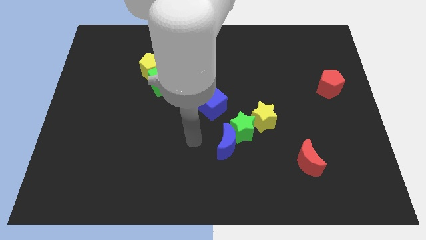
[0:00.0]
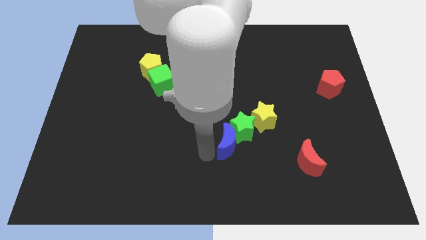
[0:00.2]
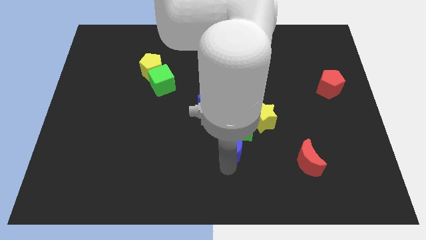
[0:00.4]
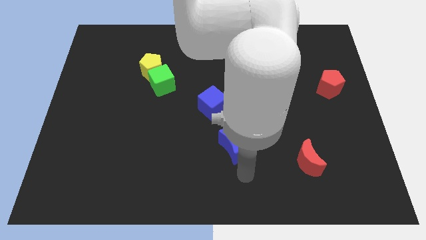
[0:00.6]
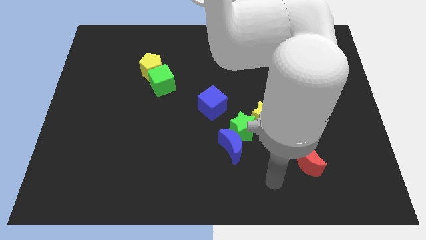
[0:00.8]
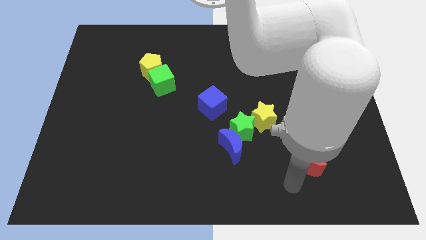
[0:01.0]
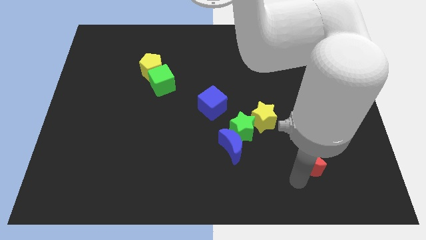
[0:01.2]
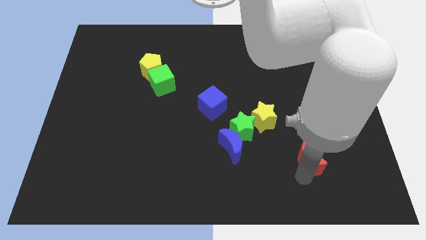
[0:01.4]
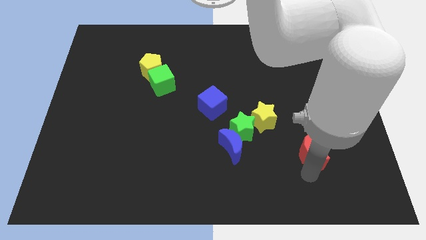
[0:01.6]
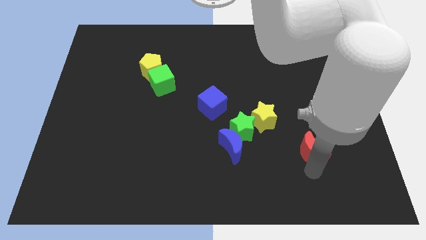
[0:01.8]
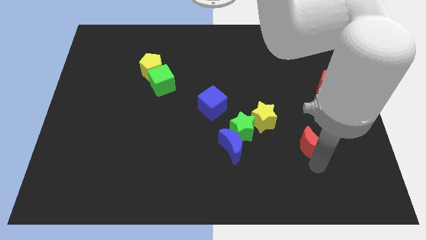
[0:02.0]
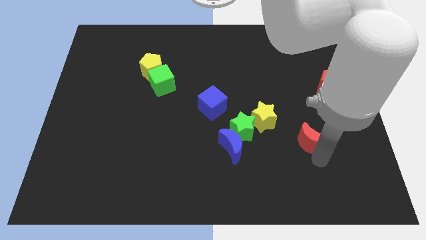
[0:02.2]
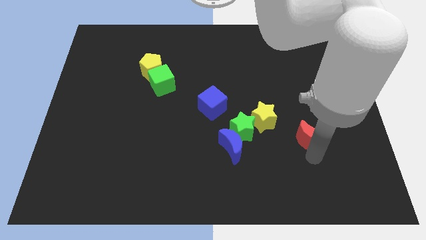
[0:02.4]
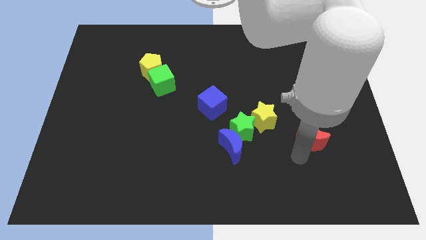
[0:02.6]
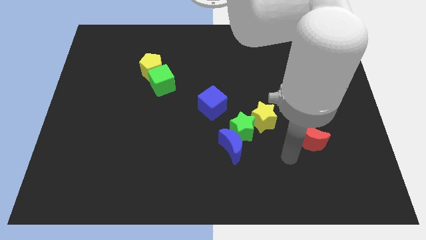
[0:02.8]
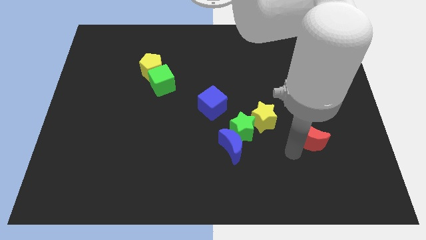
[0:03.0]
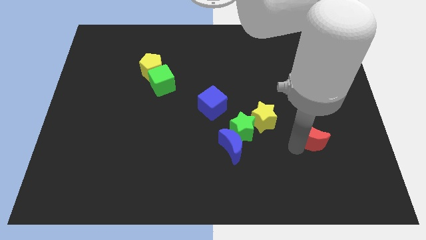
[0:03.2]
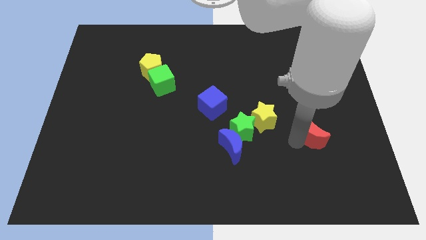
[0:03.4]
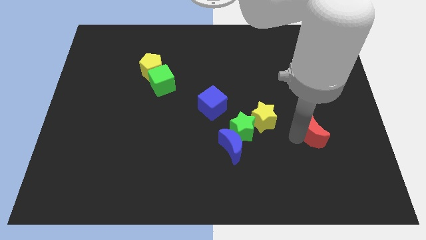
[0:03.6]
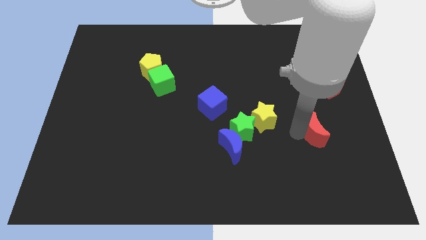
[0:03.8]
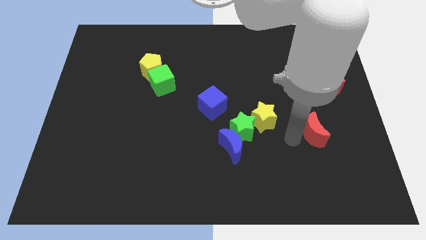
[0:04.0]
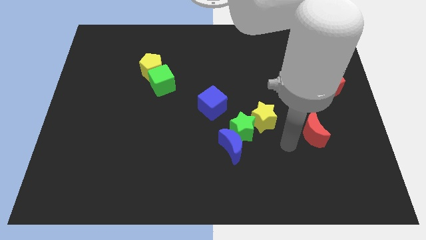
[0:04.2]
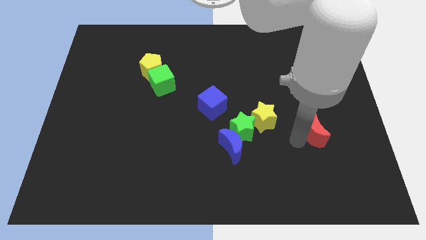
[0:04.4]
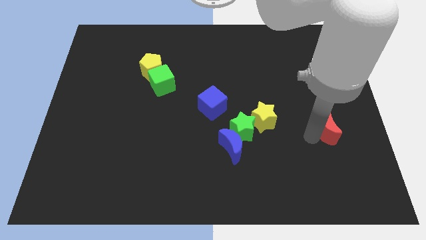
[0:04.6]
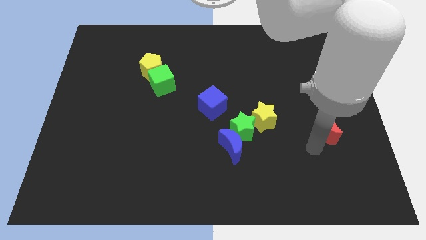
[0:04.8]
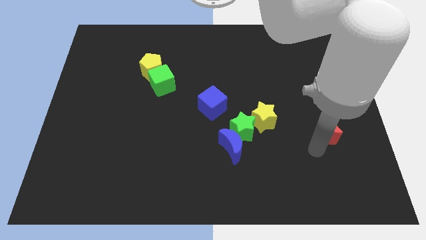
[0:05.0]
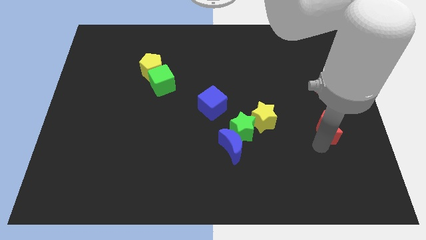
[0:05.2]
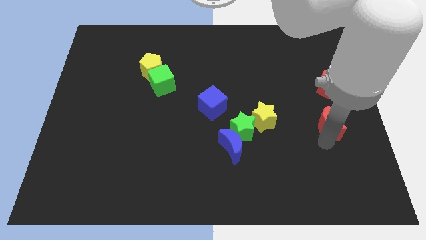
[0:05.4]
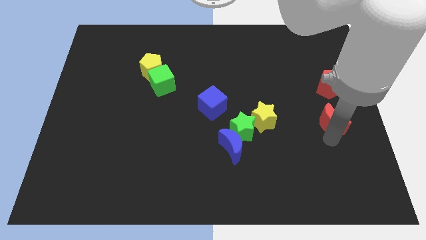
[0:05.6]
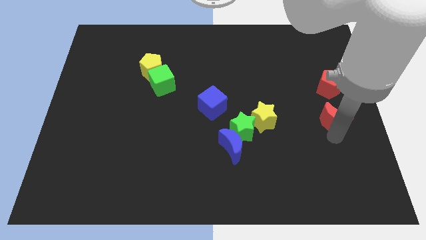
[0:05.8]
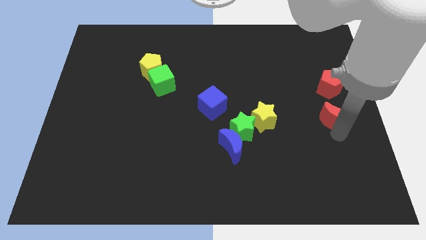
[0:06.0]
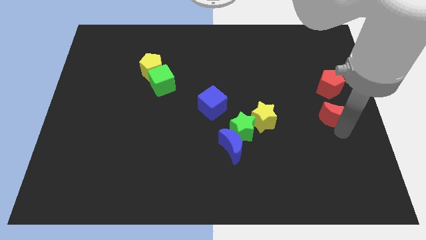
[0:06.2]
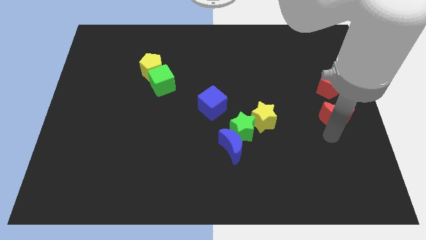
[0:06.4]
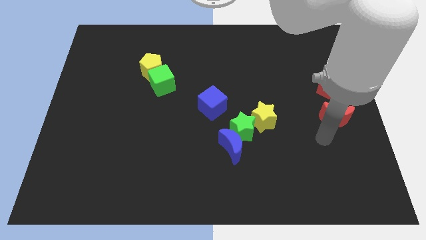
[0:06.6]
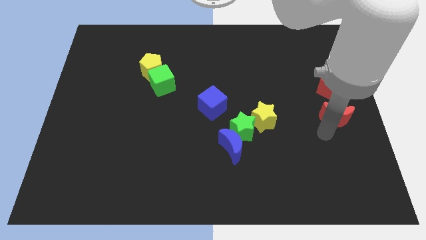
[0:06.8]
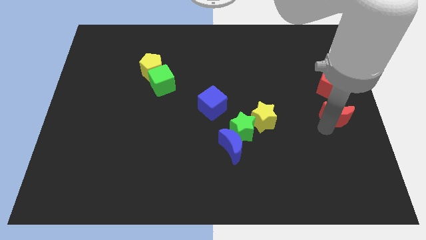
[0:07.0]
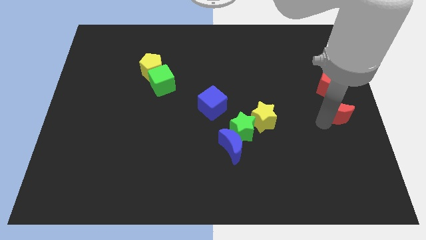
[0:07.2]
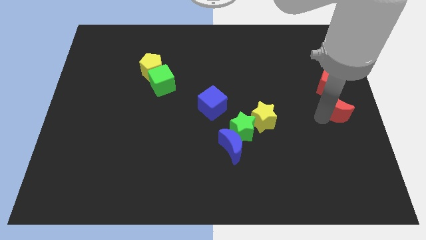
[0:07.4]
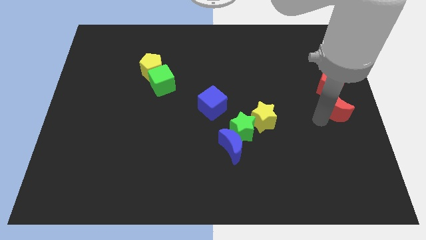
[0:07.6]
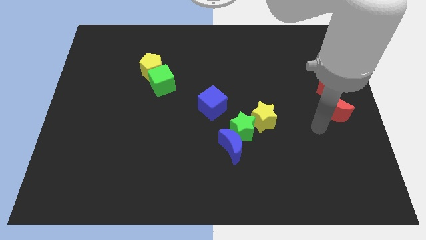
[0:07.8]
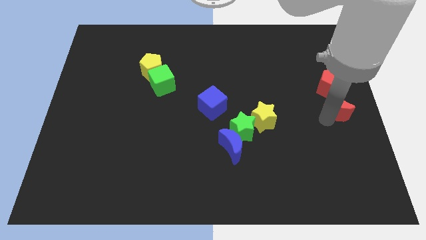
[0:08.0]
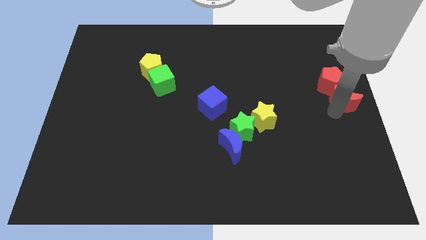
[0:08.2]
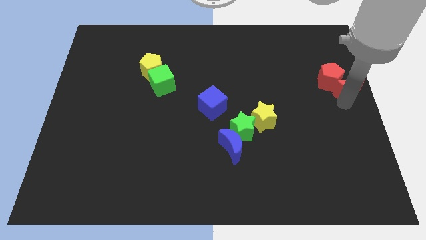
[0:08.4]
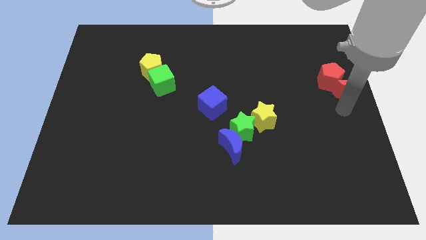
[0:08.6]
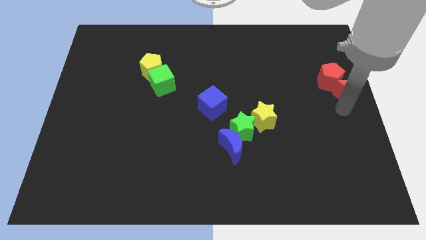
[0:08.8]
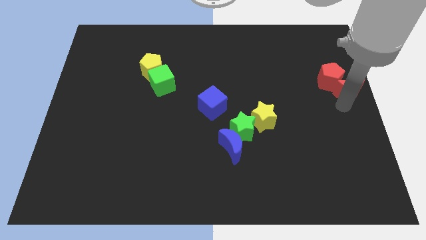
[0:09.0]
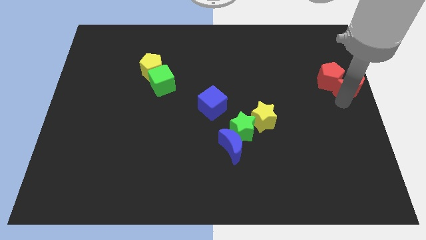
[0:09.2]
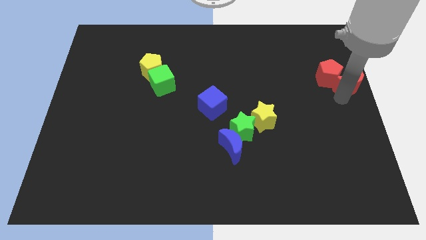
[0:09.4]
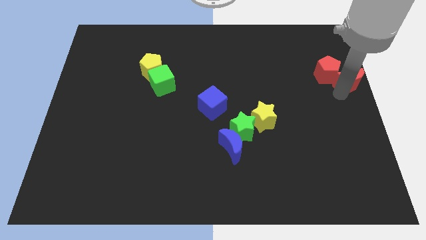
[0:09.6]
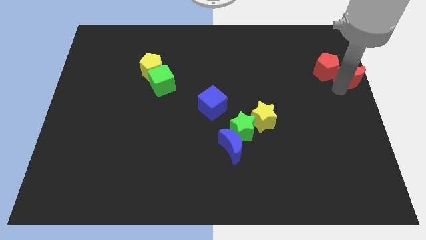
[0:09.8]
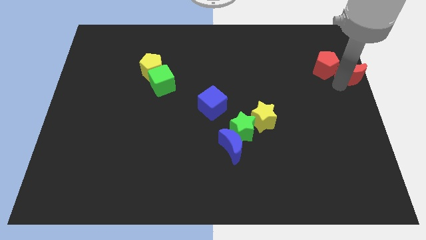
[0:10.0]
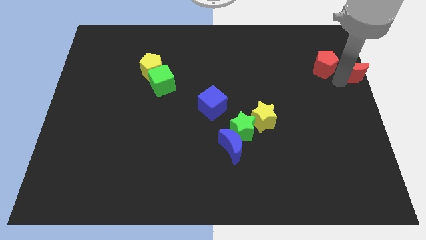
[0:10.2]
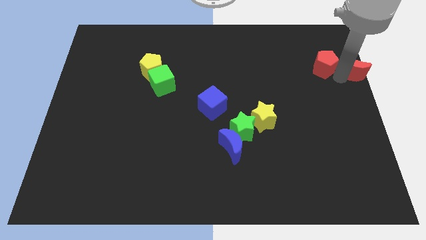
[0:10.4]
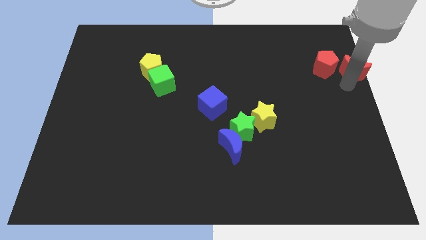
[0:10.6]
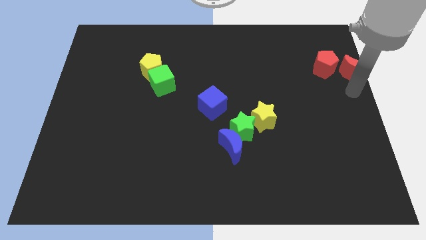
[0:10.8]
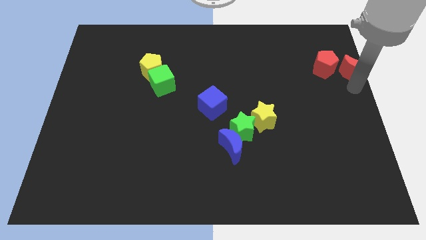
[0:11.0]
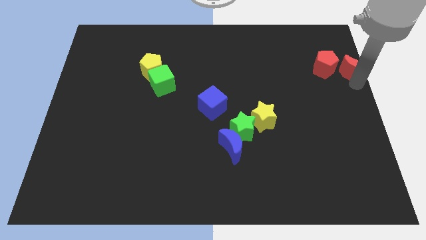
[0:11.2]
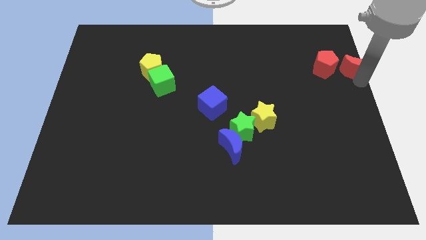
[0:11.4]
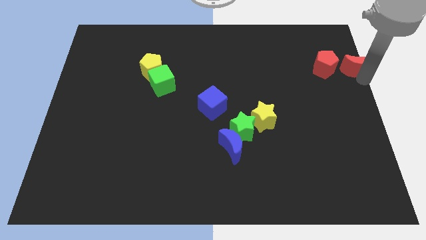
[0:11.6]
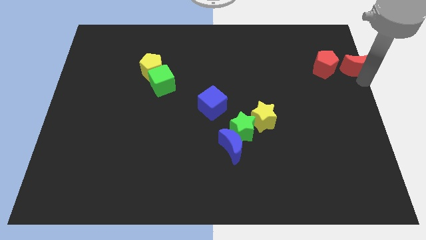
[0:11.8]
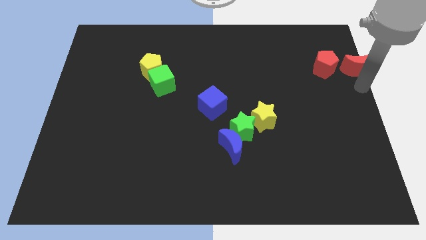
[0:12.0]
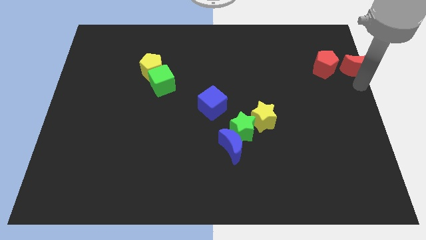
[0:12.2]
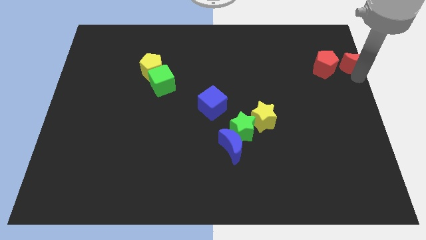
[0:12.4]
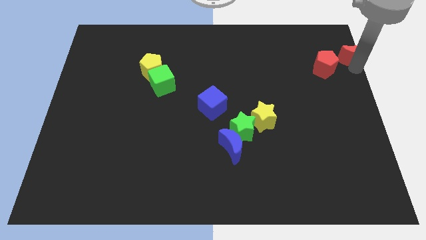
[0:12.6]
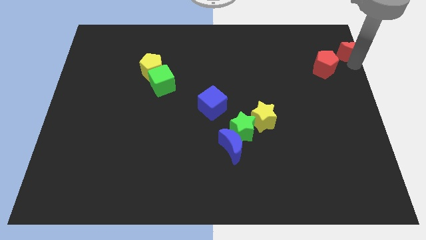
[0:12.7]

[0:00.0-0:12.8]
put the red moon to the top right corner
